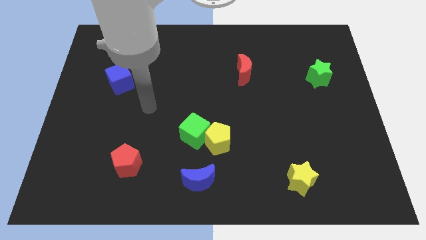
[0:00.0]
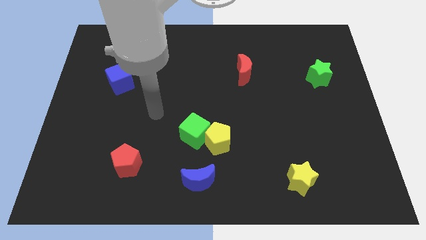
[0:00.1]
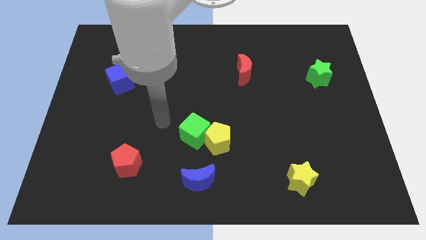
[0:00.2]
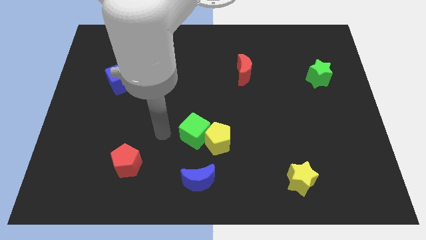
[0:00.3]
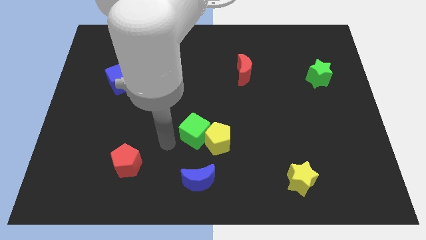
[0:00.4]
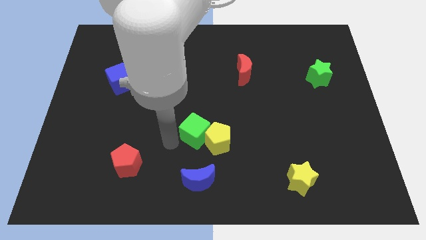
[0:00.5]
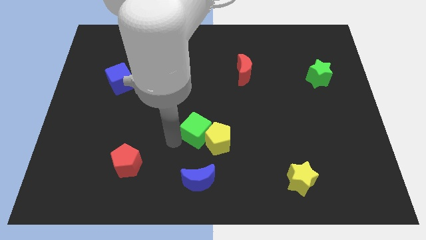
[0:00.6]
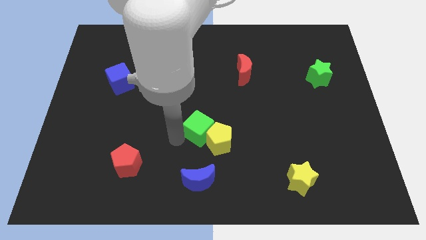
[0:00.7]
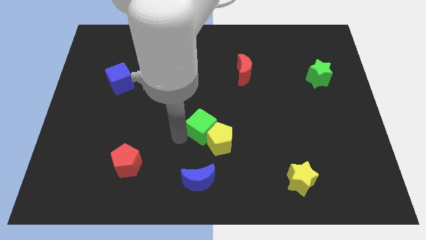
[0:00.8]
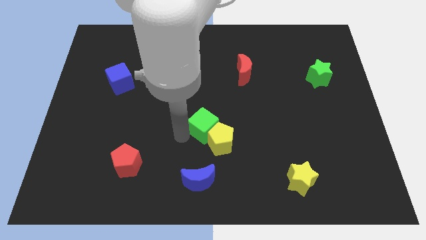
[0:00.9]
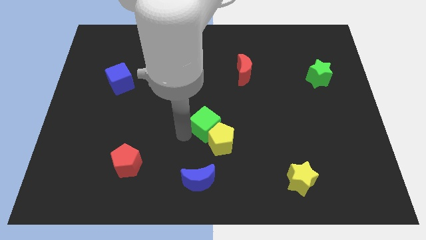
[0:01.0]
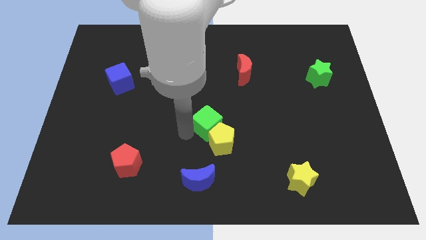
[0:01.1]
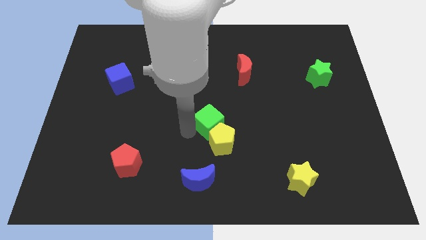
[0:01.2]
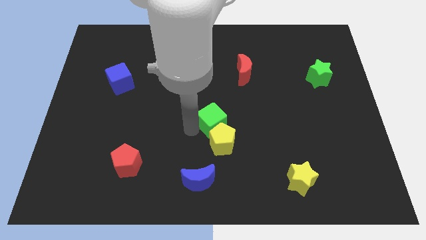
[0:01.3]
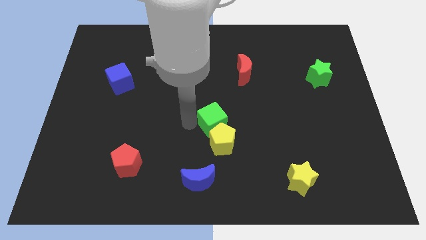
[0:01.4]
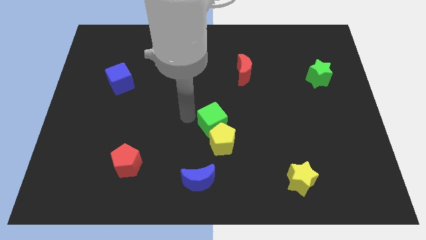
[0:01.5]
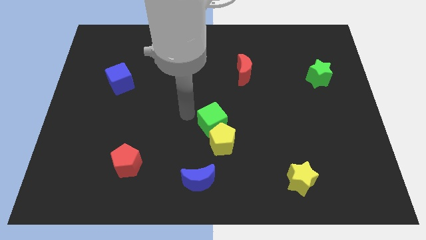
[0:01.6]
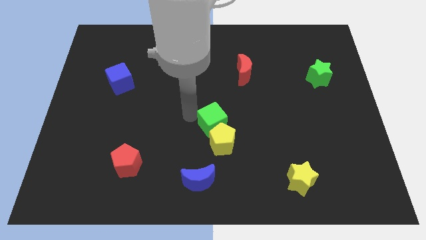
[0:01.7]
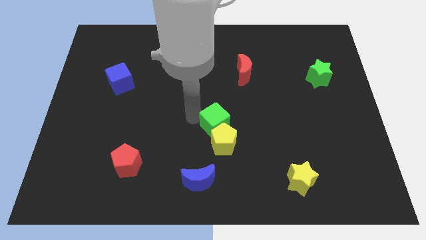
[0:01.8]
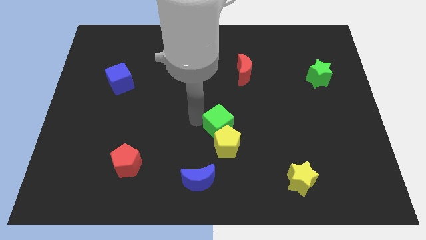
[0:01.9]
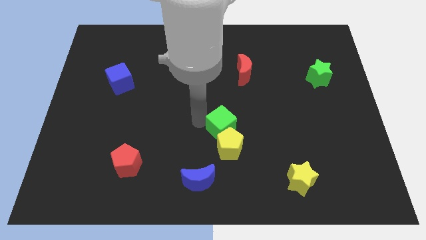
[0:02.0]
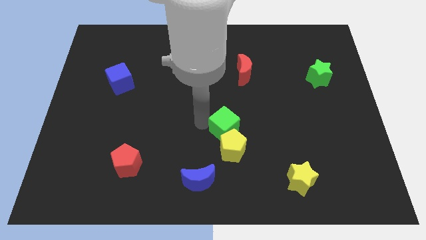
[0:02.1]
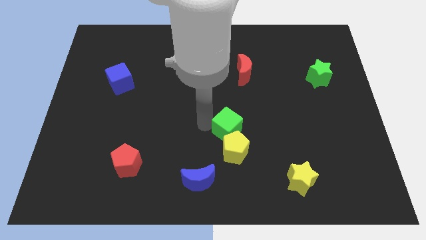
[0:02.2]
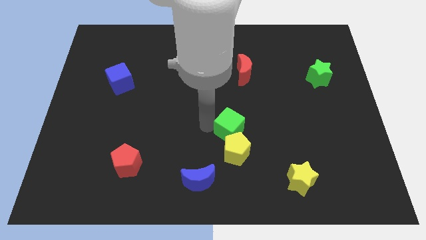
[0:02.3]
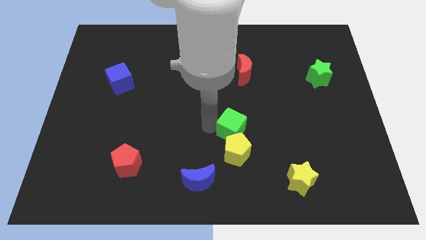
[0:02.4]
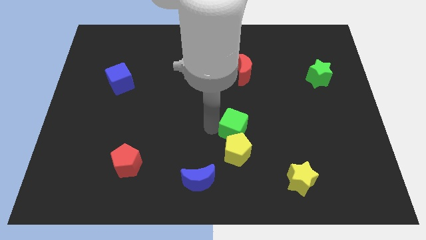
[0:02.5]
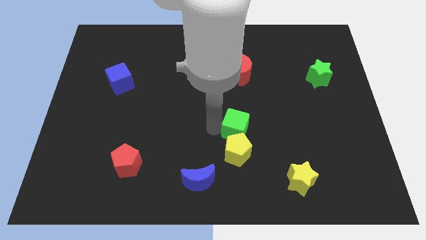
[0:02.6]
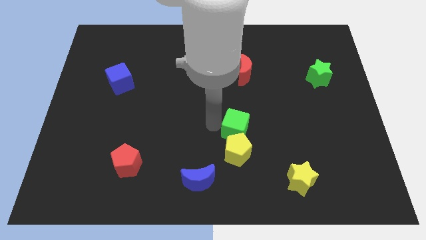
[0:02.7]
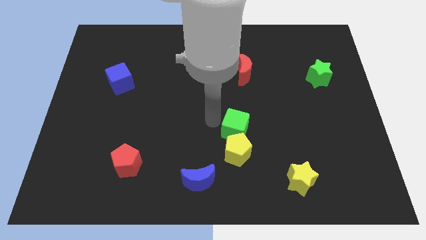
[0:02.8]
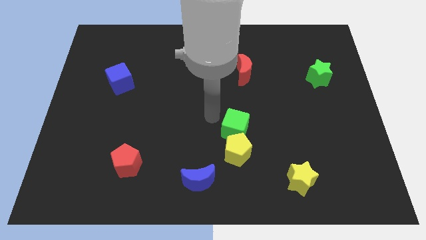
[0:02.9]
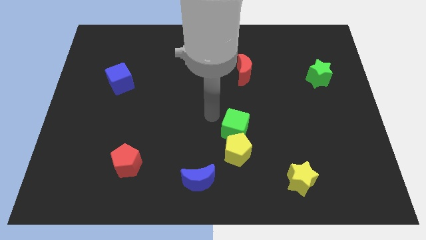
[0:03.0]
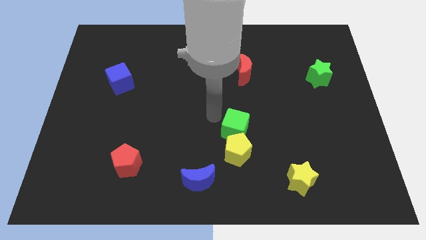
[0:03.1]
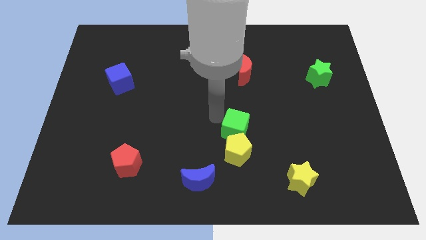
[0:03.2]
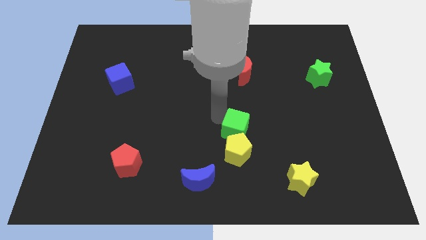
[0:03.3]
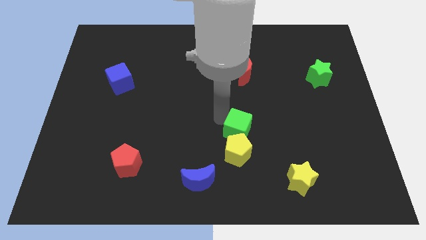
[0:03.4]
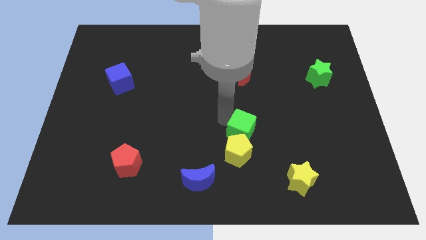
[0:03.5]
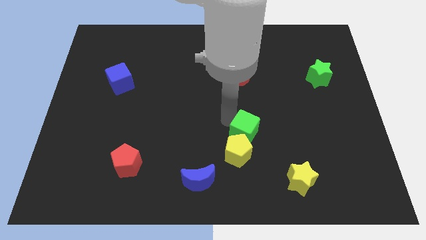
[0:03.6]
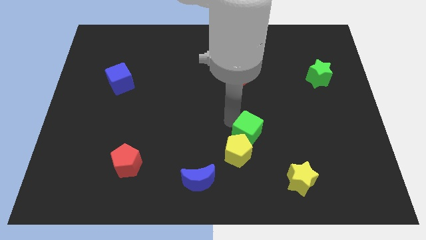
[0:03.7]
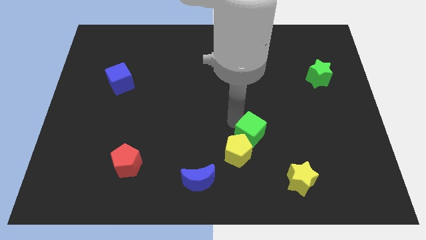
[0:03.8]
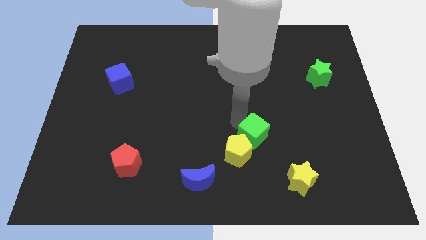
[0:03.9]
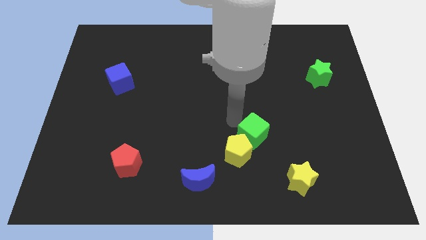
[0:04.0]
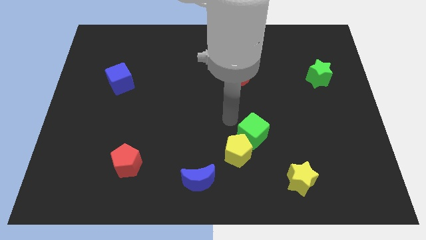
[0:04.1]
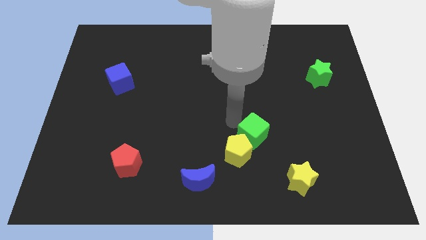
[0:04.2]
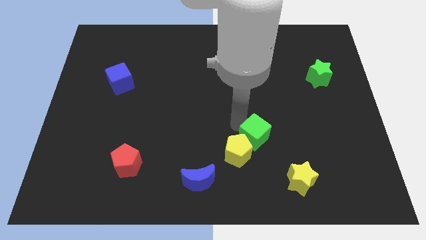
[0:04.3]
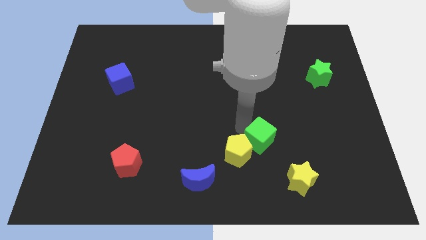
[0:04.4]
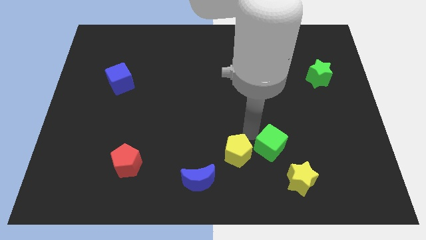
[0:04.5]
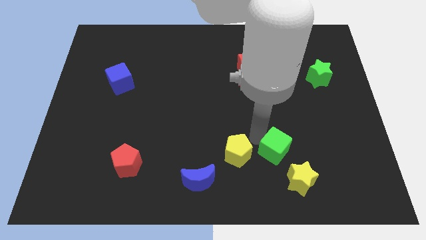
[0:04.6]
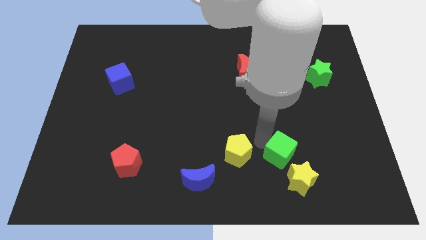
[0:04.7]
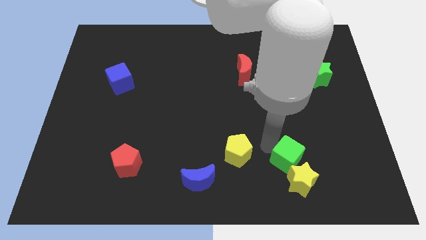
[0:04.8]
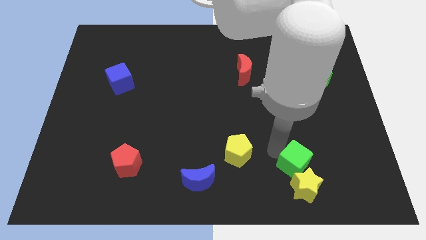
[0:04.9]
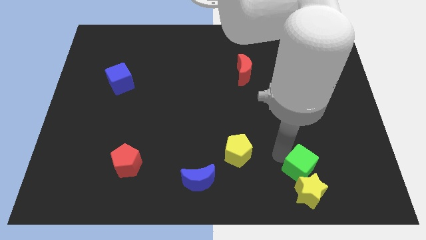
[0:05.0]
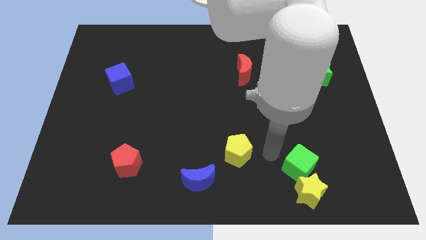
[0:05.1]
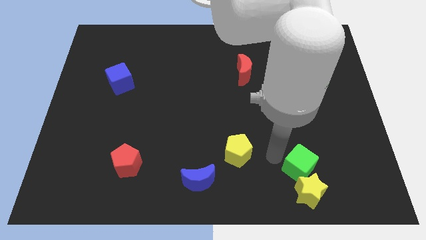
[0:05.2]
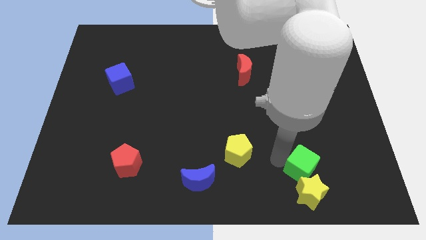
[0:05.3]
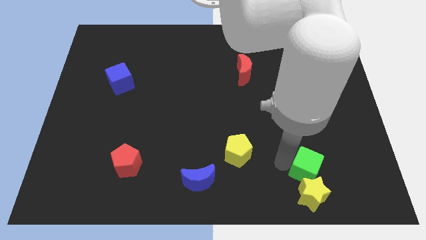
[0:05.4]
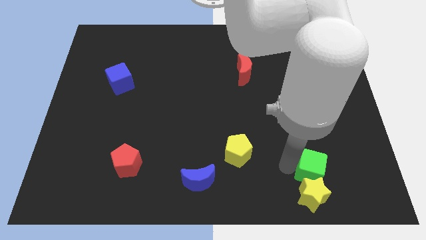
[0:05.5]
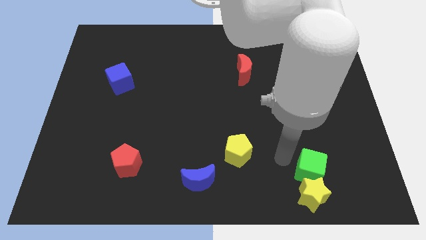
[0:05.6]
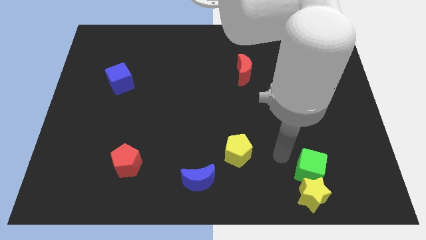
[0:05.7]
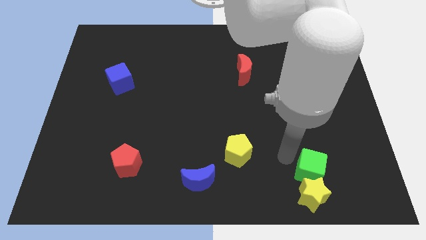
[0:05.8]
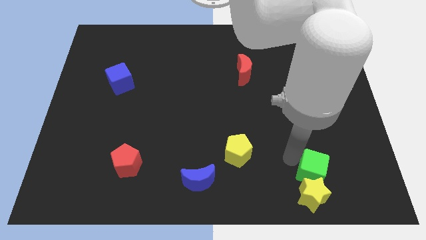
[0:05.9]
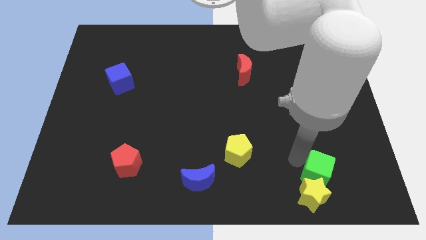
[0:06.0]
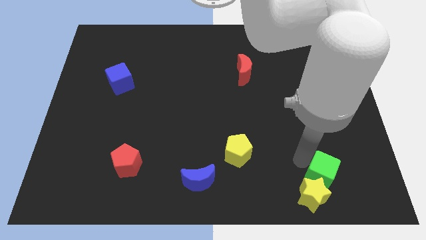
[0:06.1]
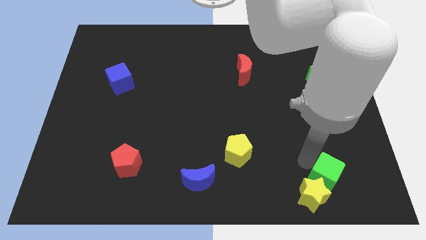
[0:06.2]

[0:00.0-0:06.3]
move the green cube just right of the yellow star
